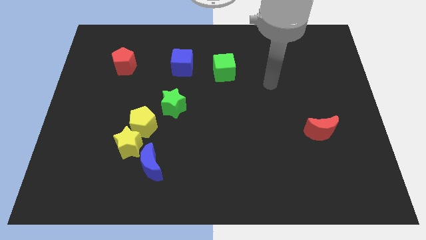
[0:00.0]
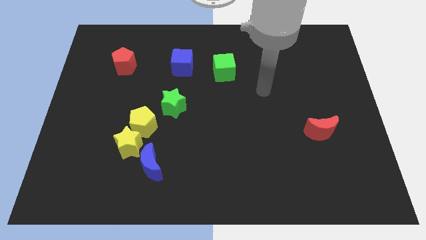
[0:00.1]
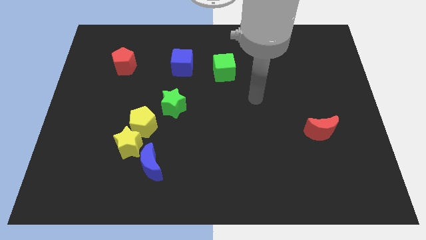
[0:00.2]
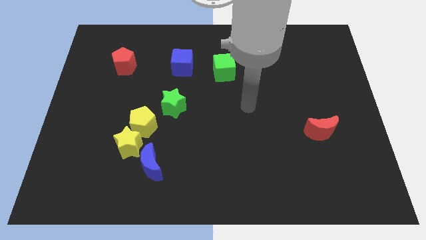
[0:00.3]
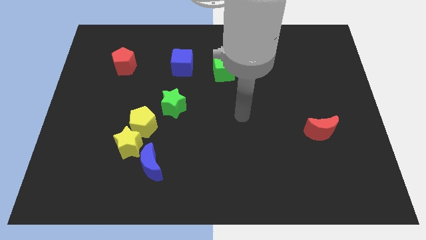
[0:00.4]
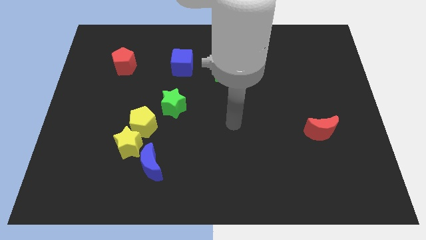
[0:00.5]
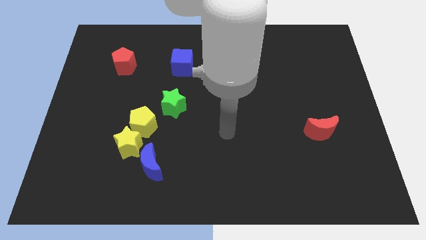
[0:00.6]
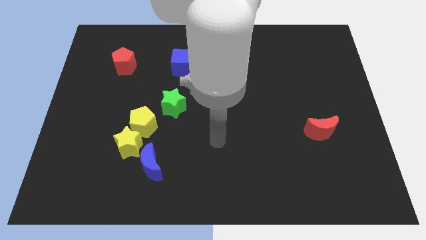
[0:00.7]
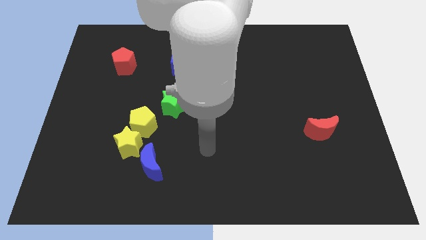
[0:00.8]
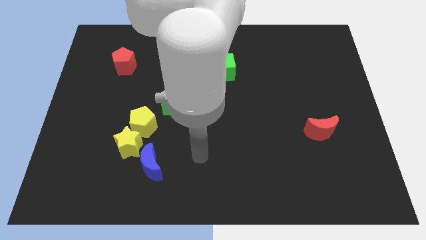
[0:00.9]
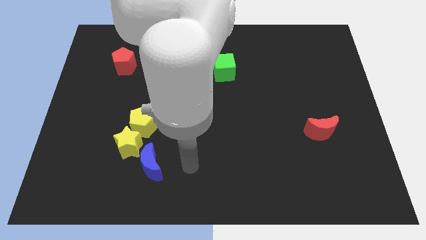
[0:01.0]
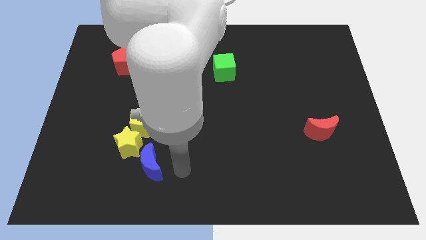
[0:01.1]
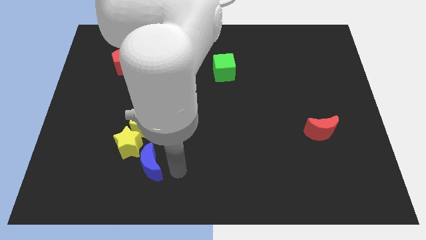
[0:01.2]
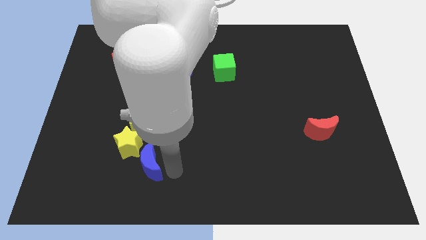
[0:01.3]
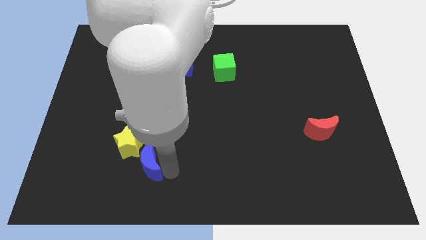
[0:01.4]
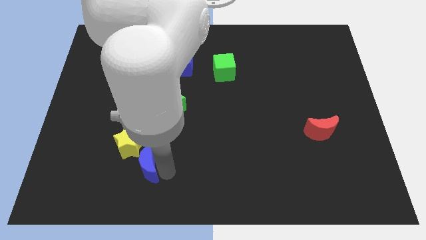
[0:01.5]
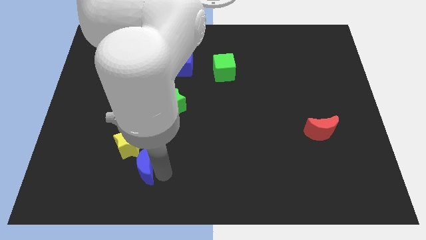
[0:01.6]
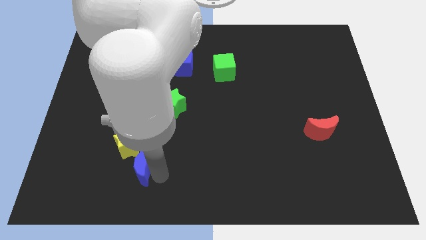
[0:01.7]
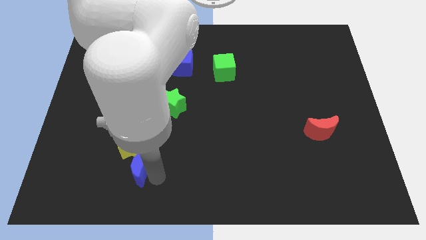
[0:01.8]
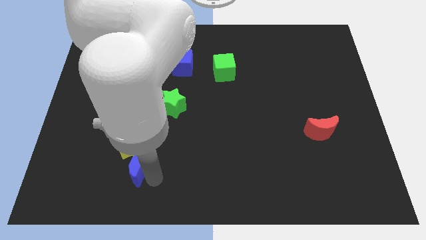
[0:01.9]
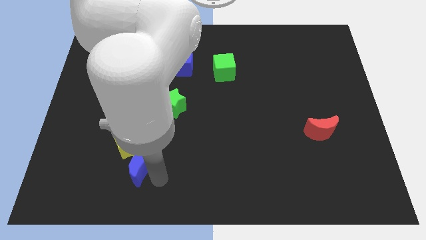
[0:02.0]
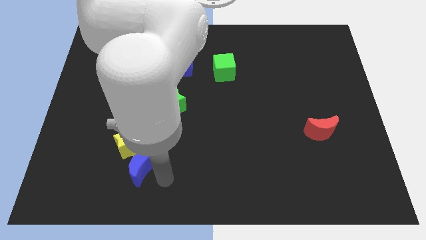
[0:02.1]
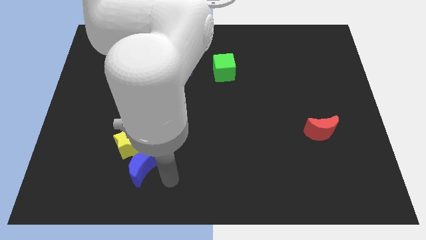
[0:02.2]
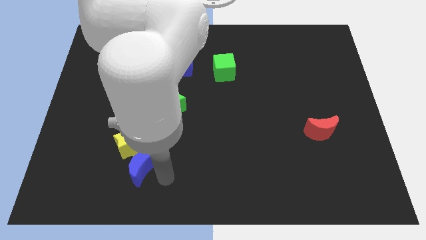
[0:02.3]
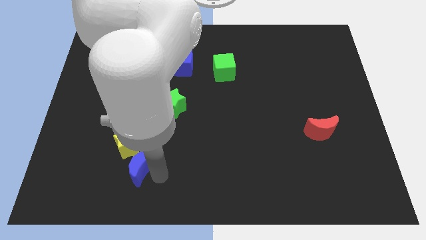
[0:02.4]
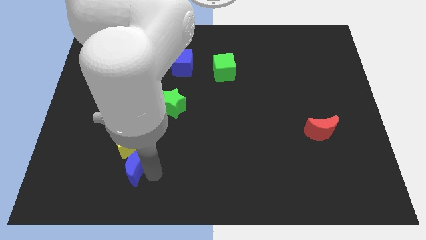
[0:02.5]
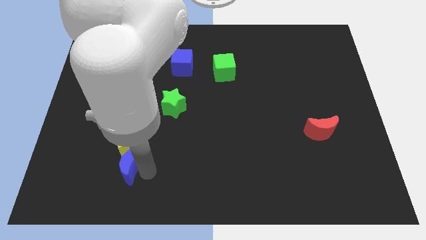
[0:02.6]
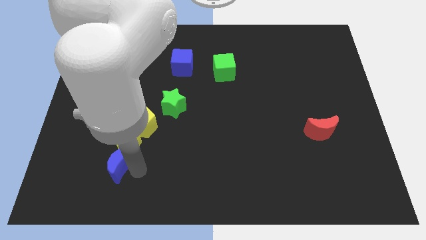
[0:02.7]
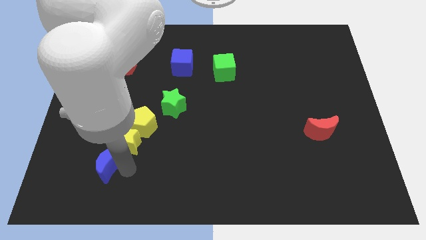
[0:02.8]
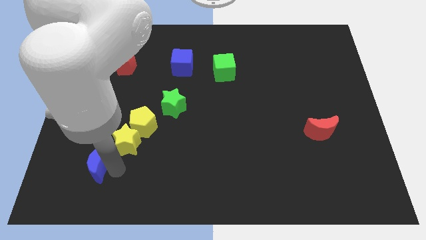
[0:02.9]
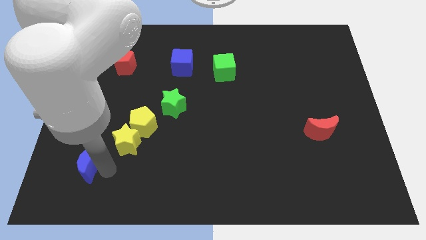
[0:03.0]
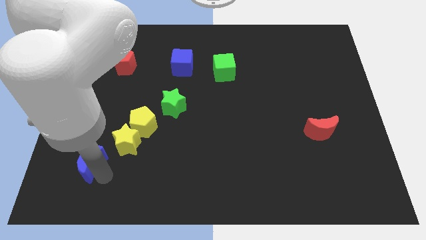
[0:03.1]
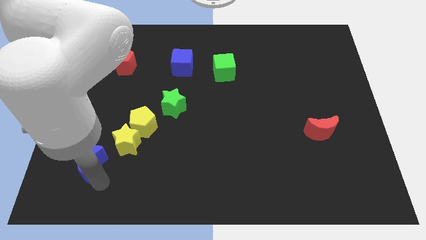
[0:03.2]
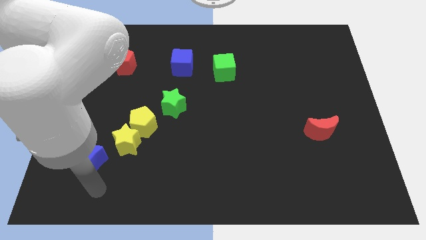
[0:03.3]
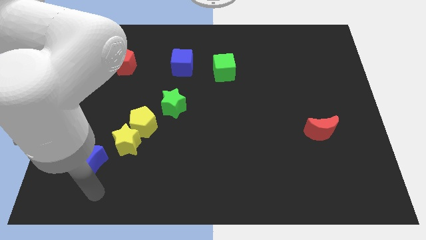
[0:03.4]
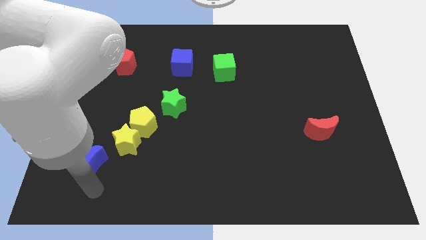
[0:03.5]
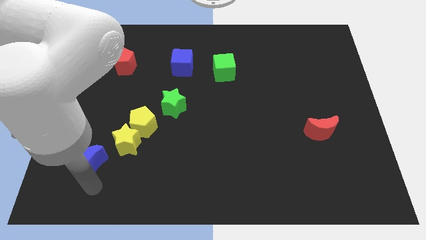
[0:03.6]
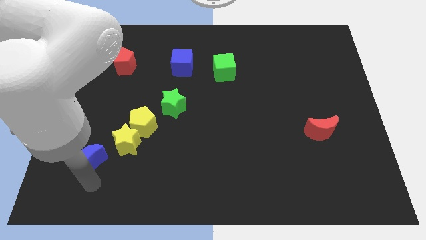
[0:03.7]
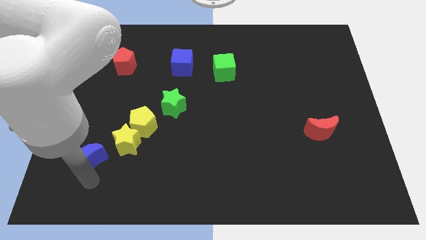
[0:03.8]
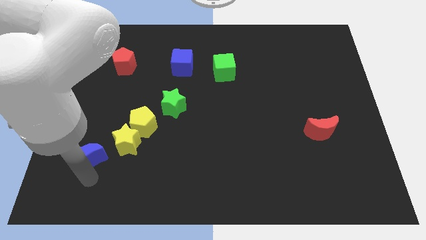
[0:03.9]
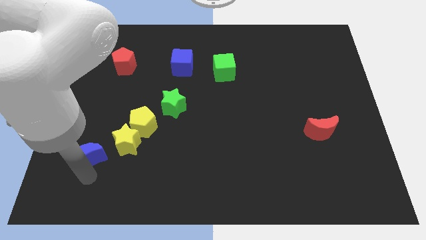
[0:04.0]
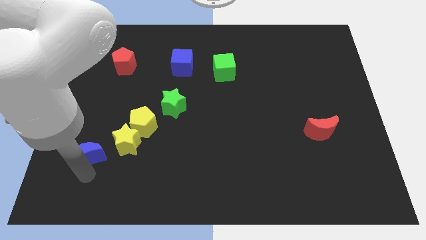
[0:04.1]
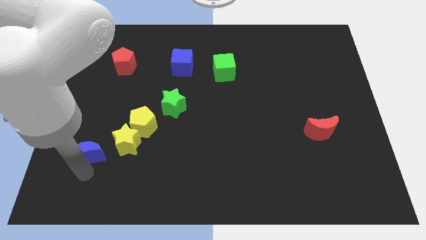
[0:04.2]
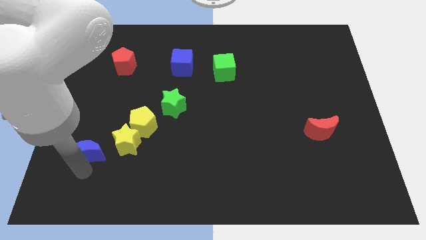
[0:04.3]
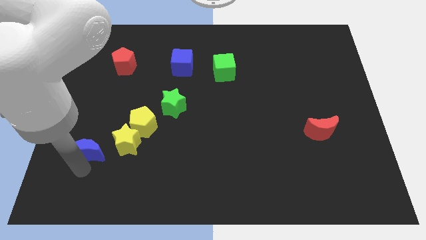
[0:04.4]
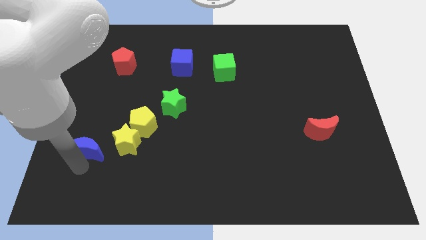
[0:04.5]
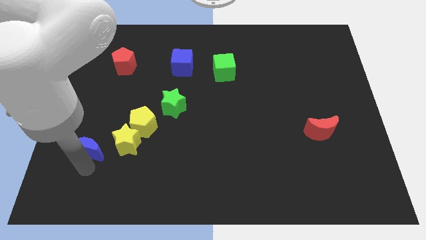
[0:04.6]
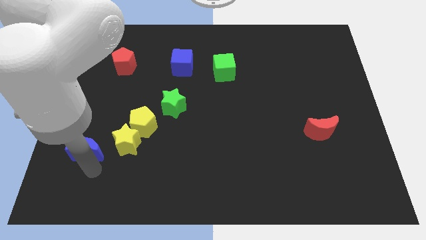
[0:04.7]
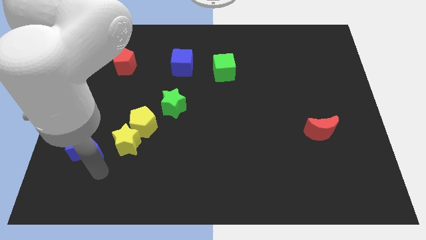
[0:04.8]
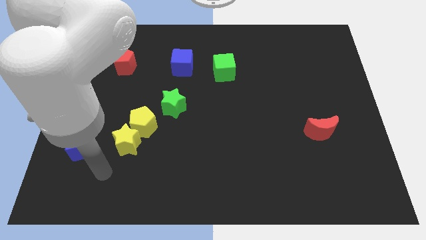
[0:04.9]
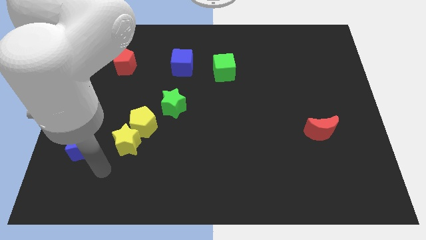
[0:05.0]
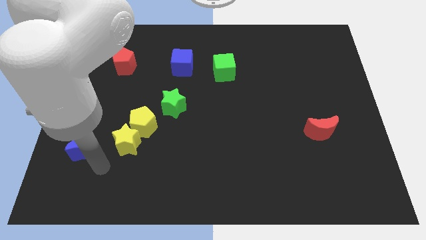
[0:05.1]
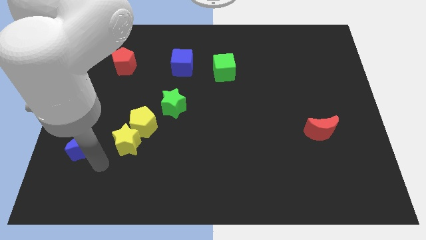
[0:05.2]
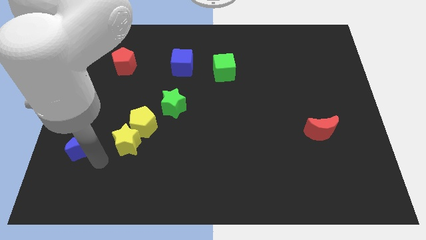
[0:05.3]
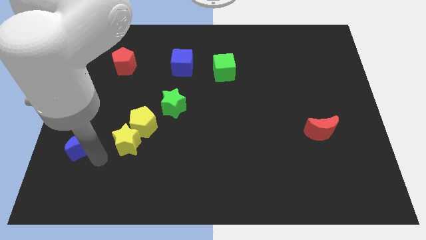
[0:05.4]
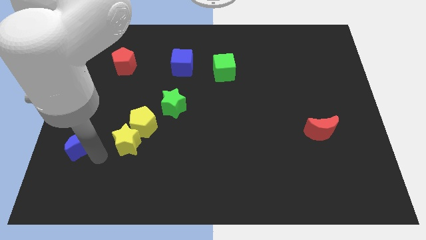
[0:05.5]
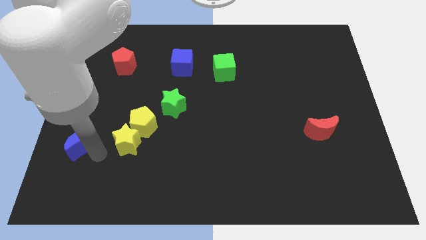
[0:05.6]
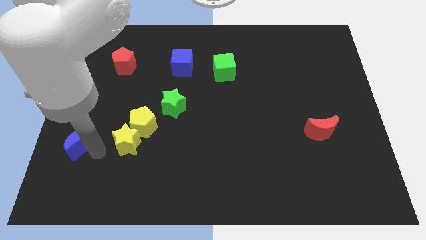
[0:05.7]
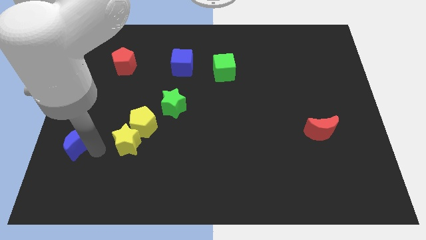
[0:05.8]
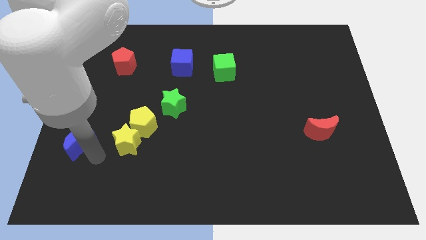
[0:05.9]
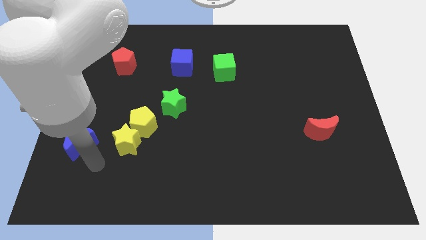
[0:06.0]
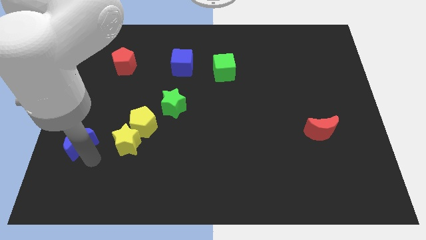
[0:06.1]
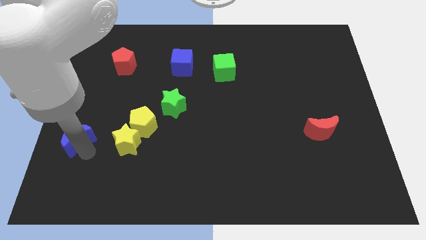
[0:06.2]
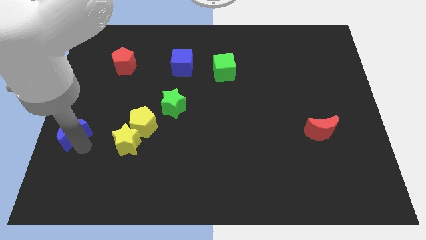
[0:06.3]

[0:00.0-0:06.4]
push the blue moon to the left side

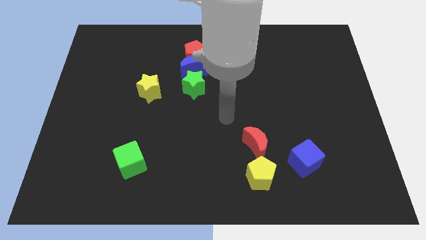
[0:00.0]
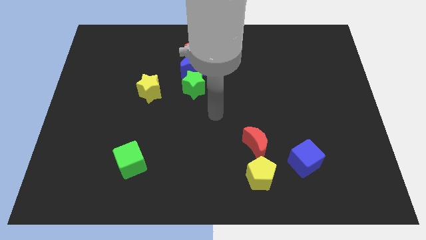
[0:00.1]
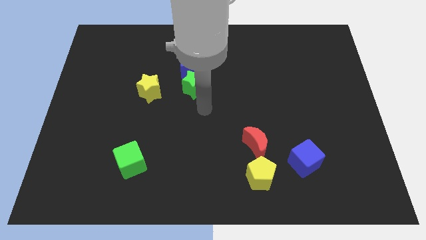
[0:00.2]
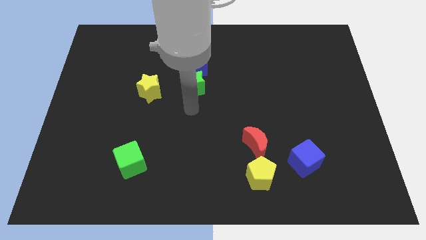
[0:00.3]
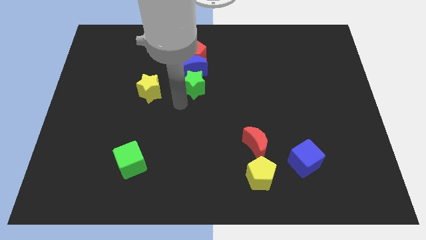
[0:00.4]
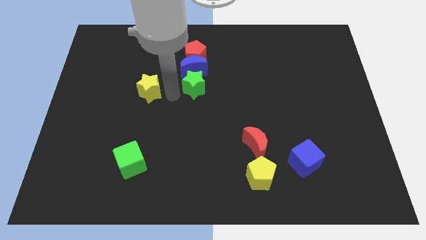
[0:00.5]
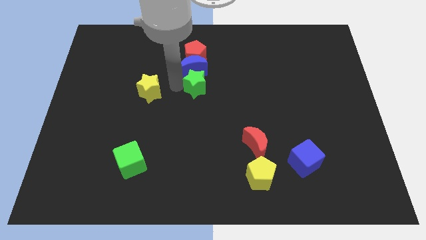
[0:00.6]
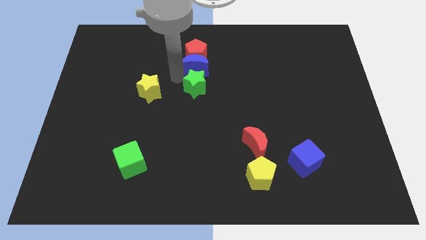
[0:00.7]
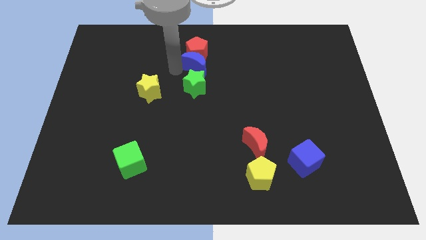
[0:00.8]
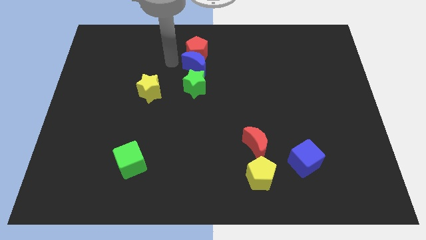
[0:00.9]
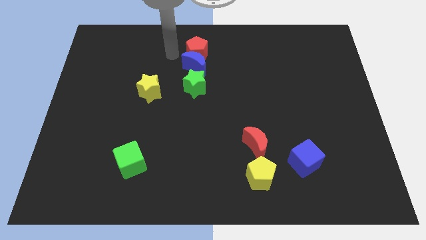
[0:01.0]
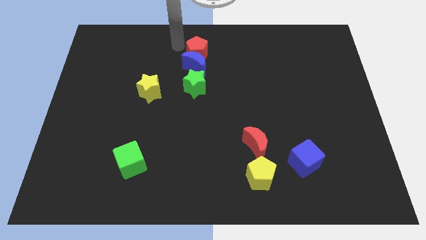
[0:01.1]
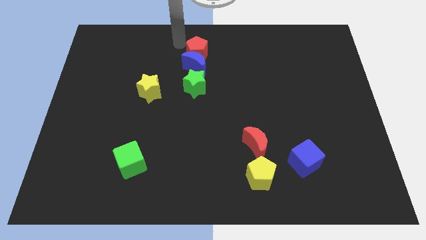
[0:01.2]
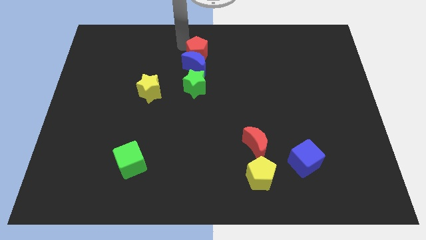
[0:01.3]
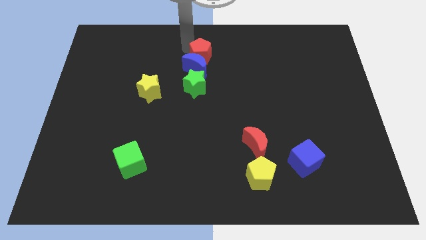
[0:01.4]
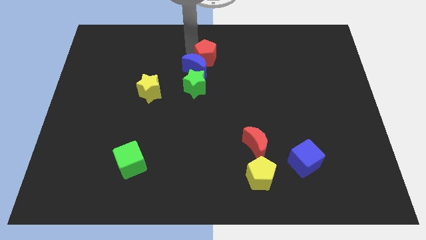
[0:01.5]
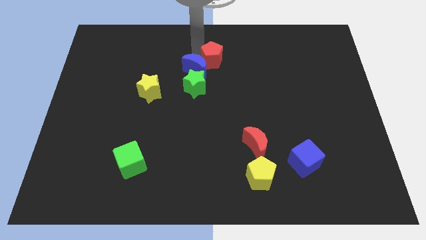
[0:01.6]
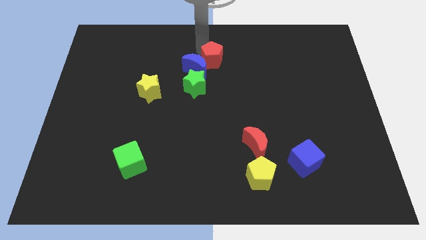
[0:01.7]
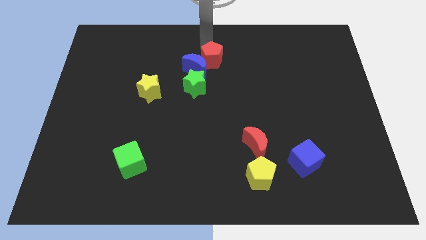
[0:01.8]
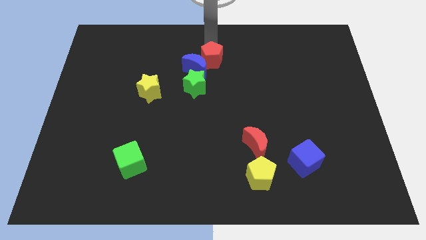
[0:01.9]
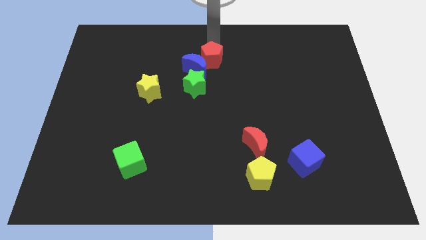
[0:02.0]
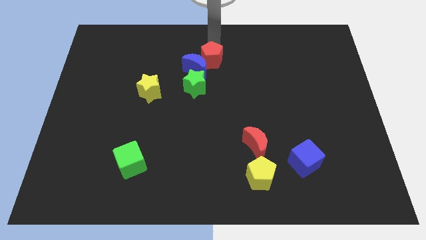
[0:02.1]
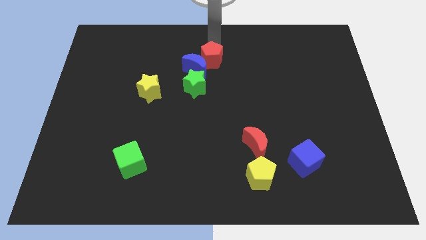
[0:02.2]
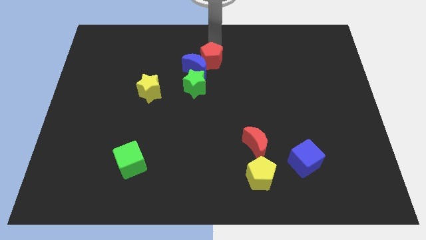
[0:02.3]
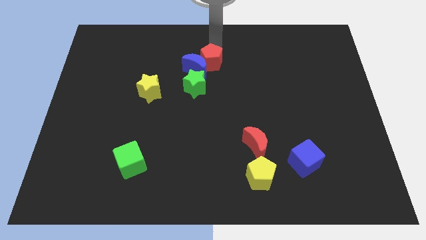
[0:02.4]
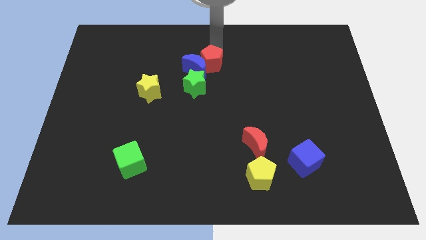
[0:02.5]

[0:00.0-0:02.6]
move the red pentagon to the middle
